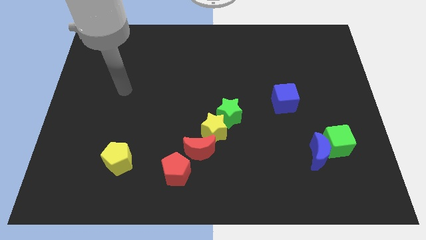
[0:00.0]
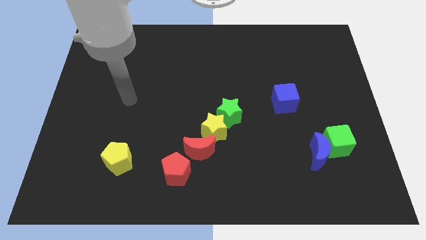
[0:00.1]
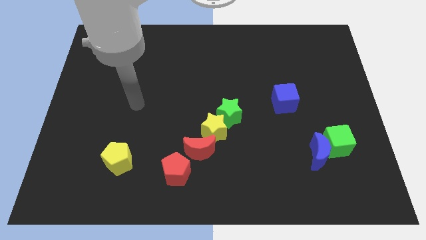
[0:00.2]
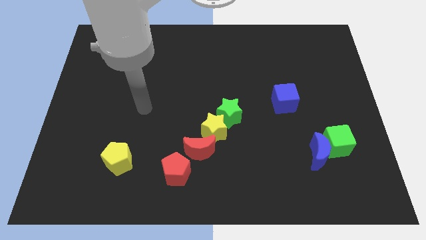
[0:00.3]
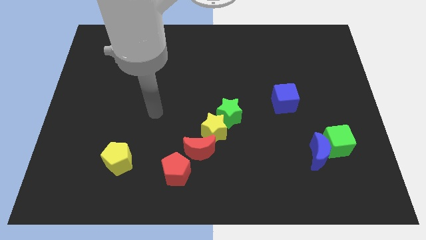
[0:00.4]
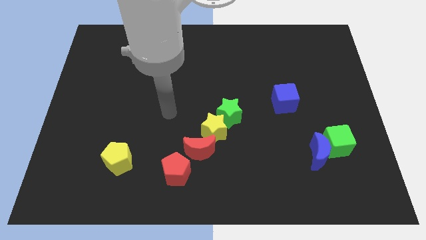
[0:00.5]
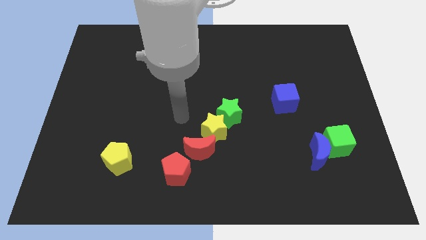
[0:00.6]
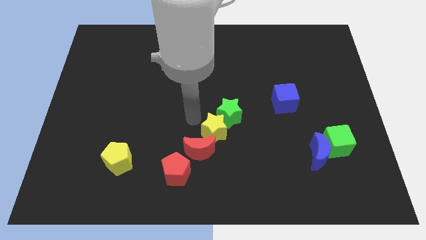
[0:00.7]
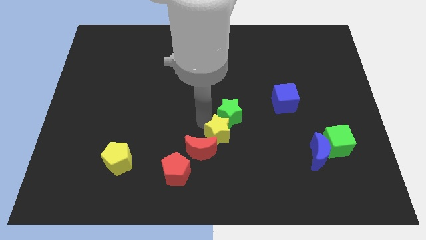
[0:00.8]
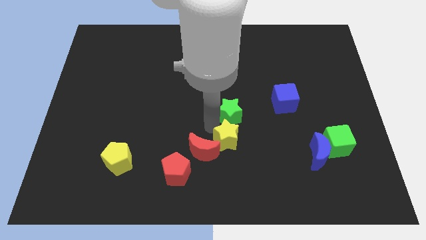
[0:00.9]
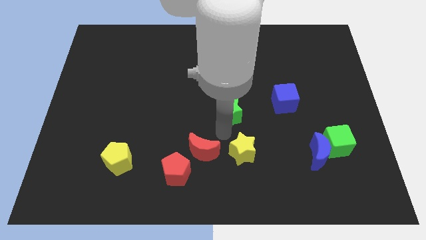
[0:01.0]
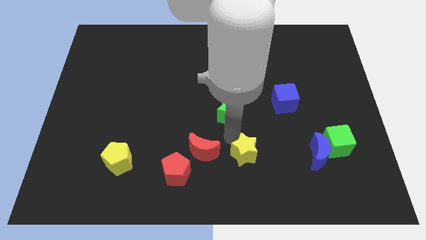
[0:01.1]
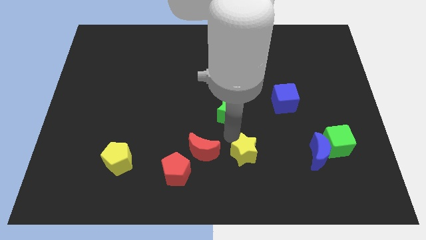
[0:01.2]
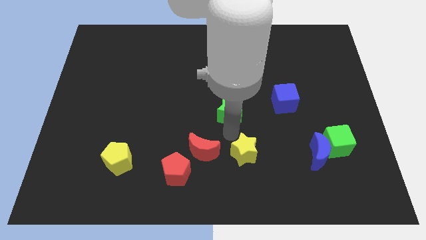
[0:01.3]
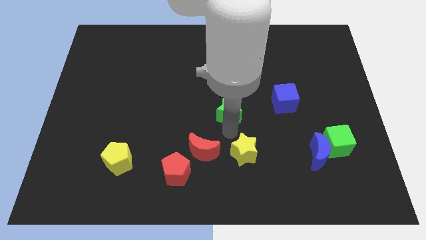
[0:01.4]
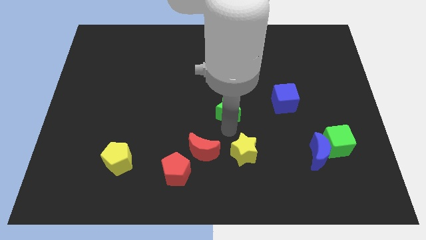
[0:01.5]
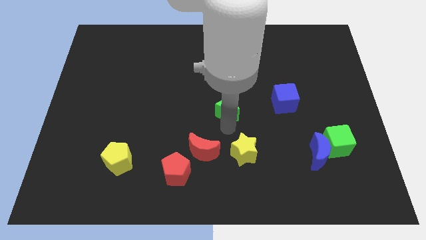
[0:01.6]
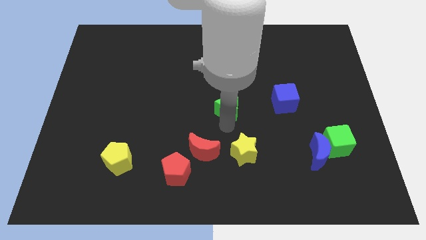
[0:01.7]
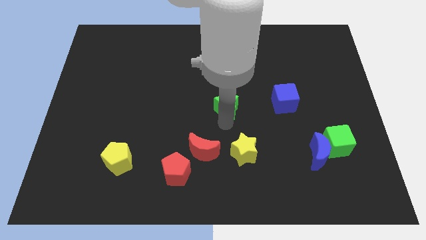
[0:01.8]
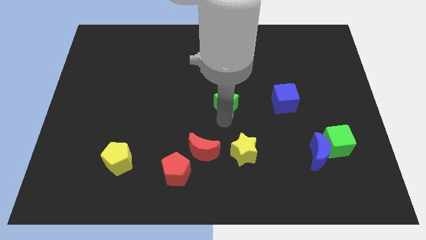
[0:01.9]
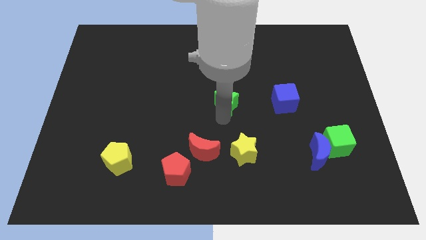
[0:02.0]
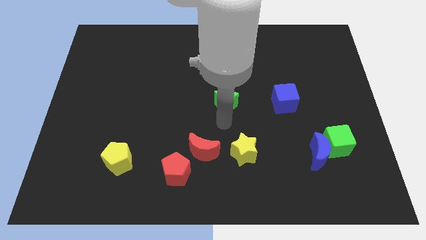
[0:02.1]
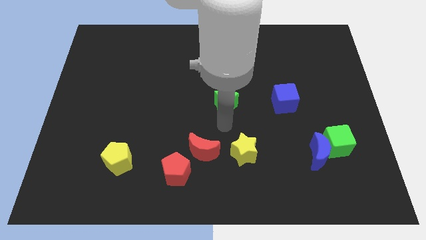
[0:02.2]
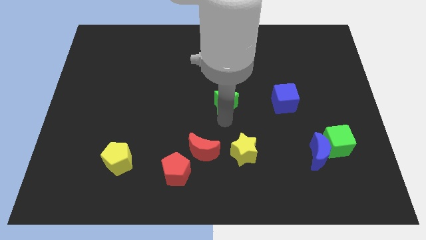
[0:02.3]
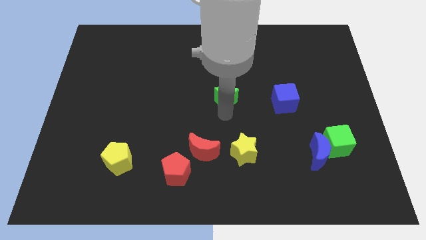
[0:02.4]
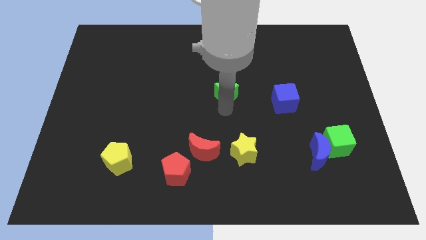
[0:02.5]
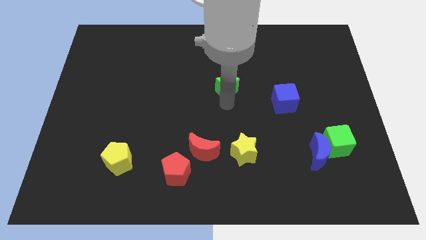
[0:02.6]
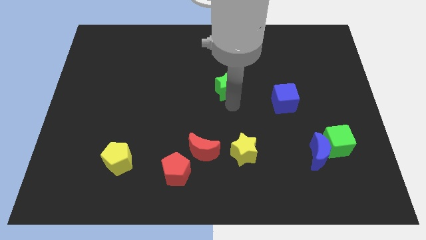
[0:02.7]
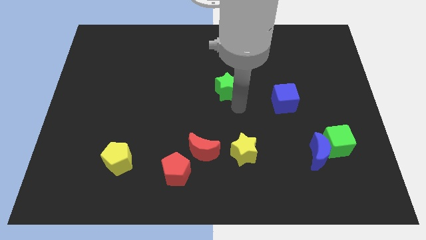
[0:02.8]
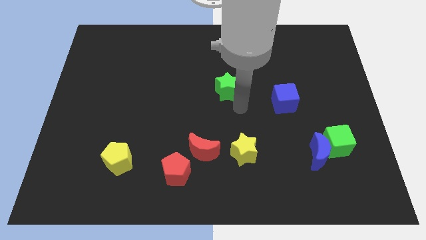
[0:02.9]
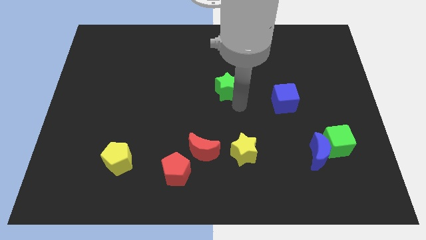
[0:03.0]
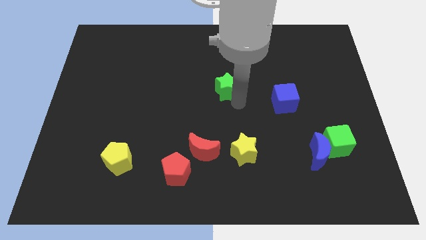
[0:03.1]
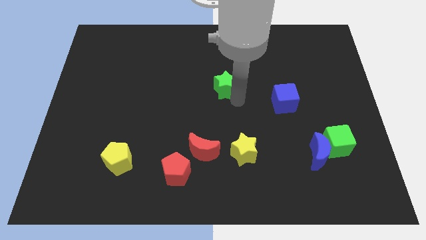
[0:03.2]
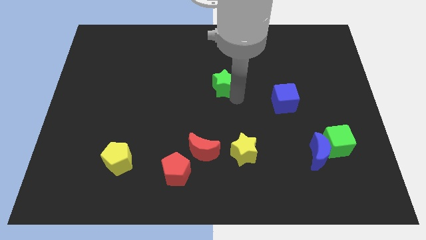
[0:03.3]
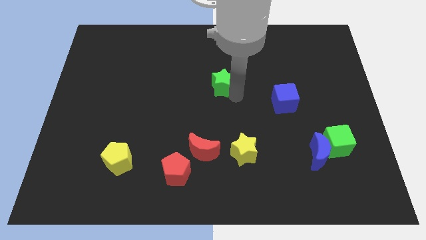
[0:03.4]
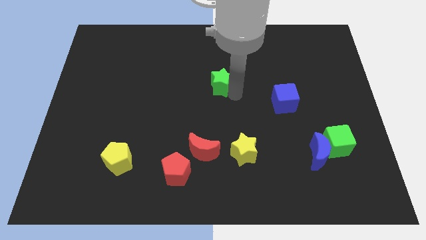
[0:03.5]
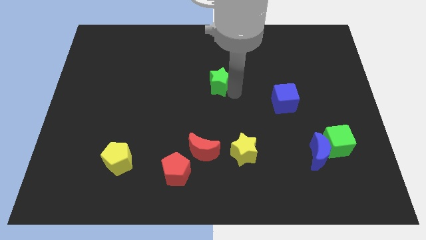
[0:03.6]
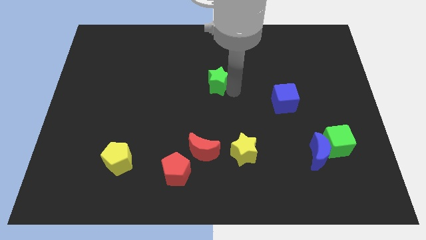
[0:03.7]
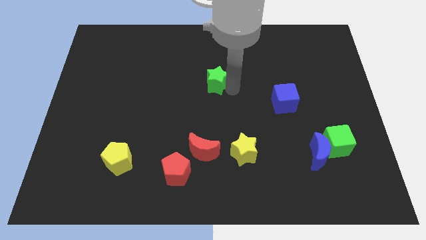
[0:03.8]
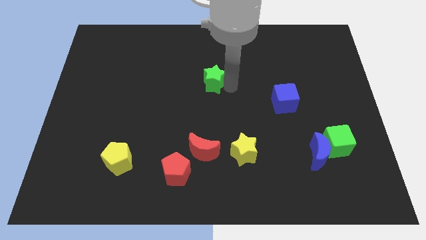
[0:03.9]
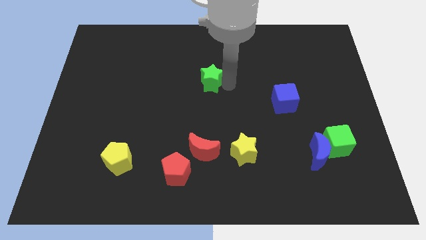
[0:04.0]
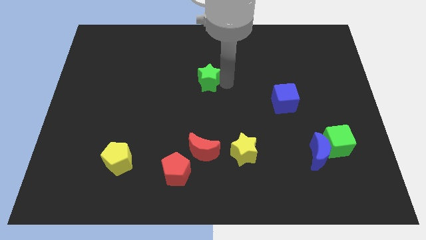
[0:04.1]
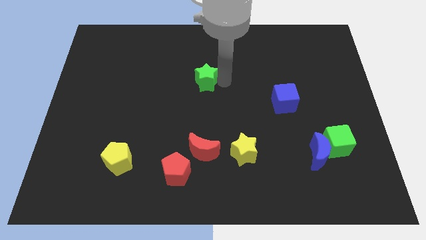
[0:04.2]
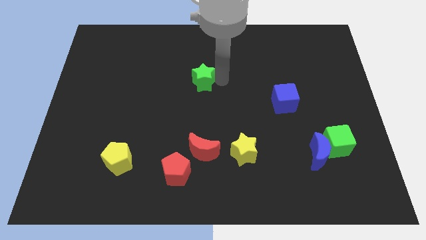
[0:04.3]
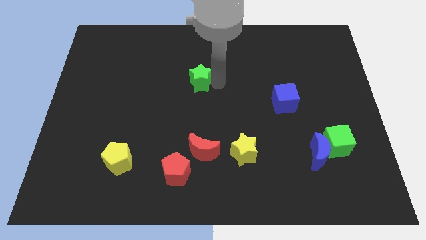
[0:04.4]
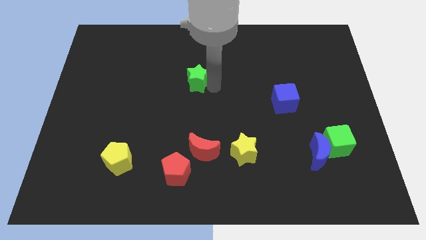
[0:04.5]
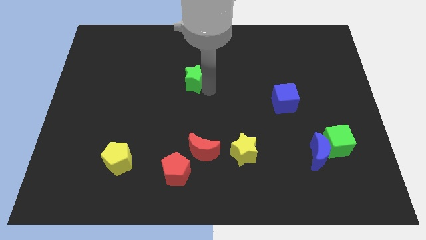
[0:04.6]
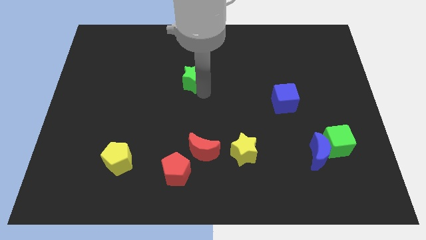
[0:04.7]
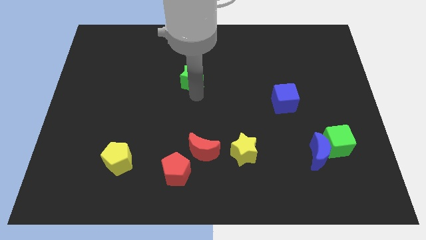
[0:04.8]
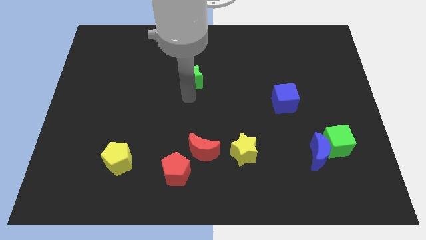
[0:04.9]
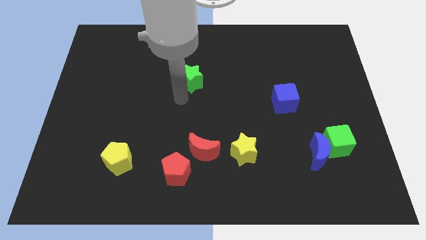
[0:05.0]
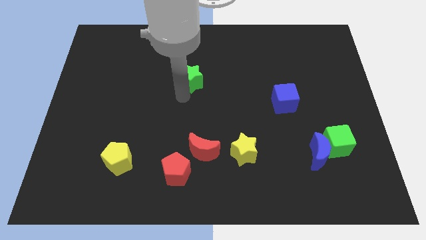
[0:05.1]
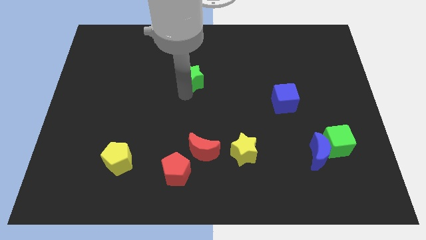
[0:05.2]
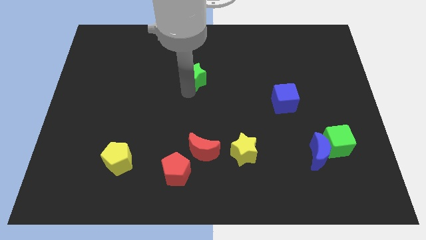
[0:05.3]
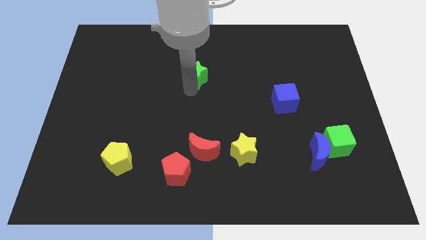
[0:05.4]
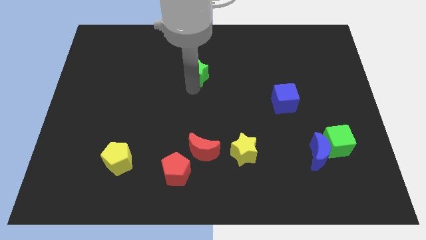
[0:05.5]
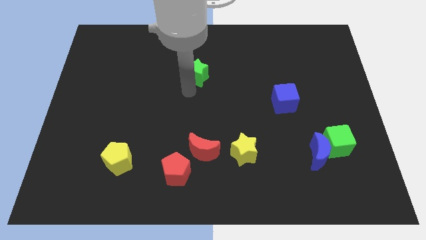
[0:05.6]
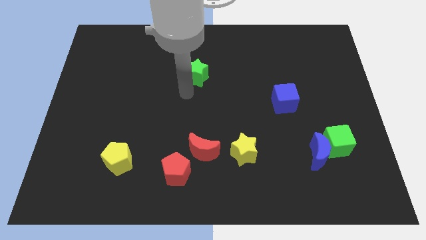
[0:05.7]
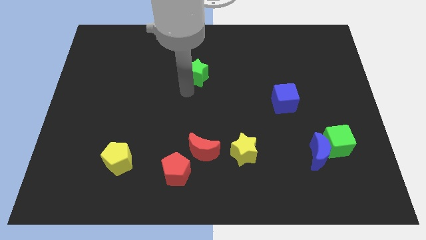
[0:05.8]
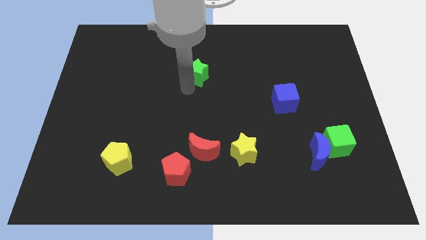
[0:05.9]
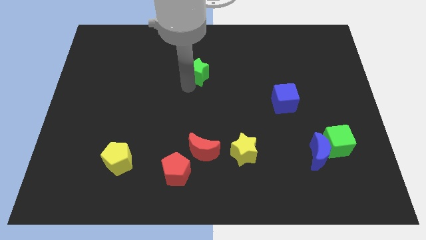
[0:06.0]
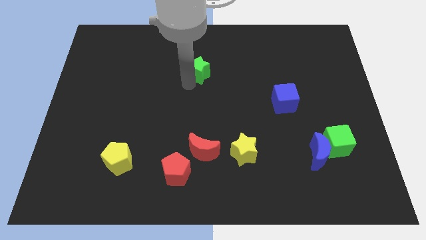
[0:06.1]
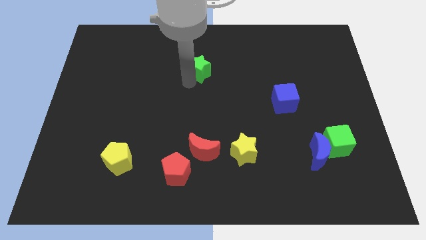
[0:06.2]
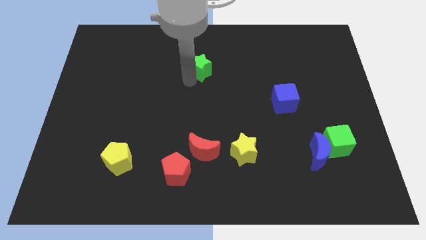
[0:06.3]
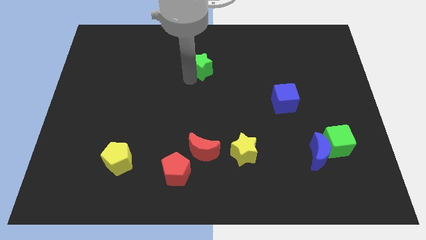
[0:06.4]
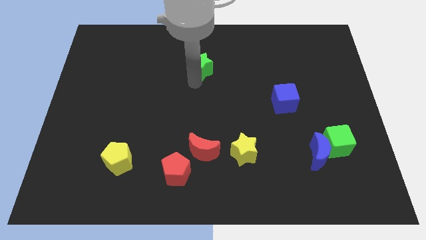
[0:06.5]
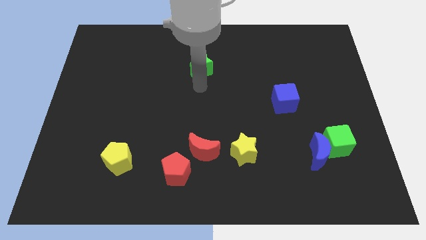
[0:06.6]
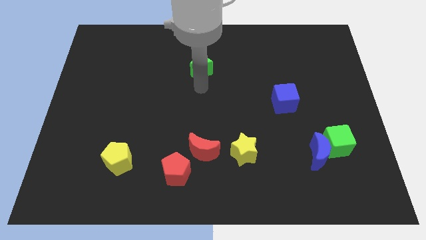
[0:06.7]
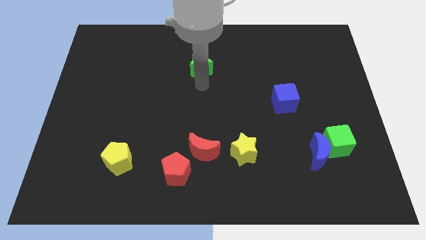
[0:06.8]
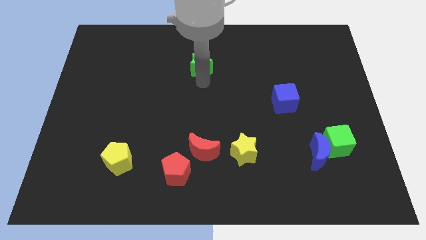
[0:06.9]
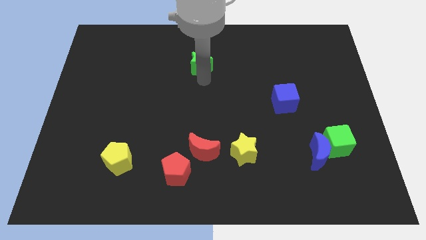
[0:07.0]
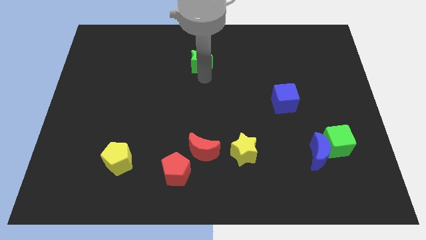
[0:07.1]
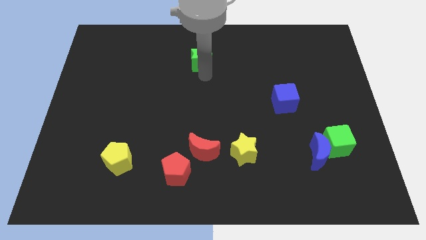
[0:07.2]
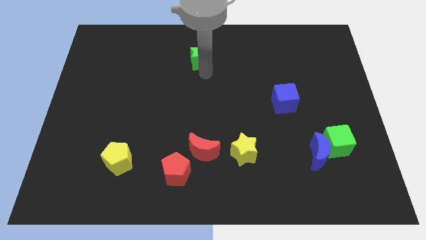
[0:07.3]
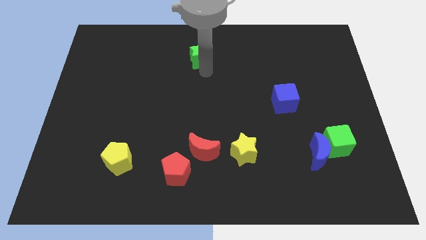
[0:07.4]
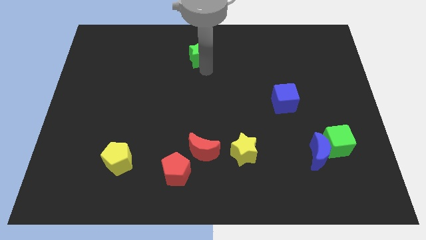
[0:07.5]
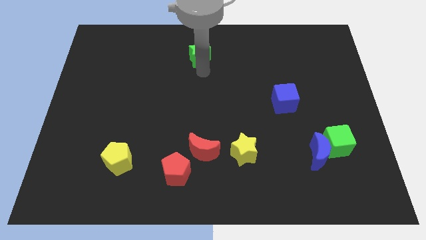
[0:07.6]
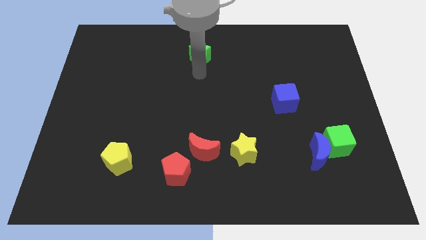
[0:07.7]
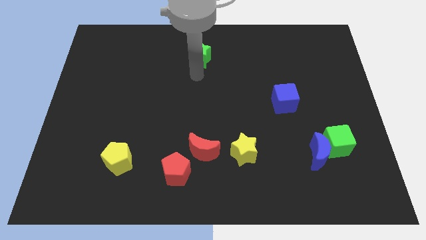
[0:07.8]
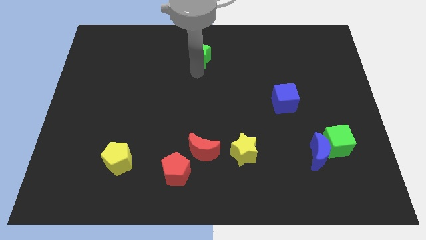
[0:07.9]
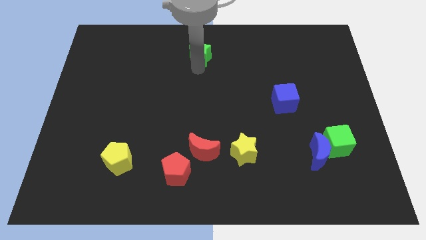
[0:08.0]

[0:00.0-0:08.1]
put the green star to the towards your base
